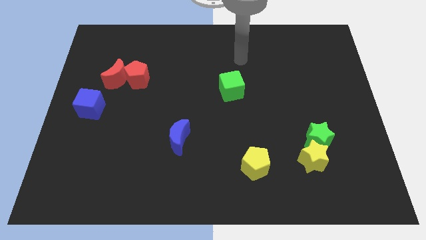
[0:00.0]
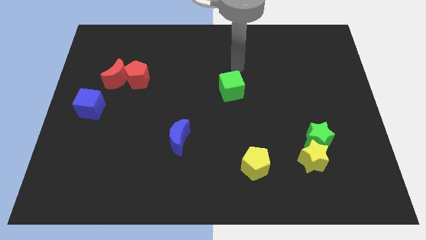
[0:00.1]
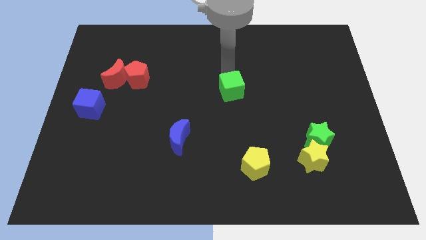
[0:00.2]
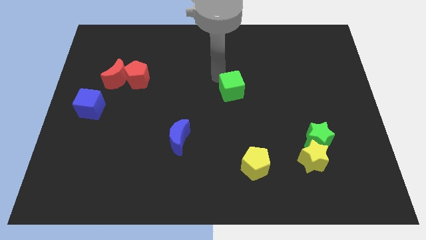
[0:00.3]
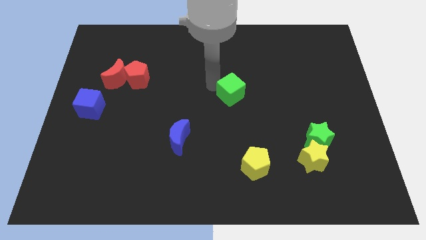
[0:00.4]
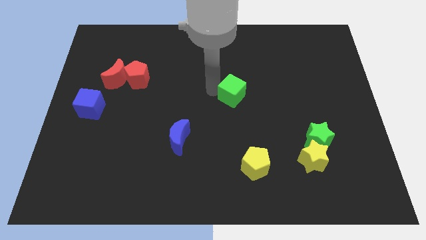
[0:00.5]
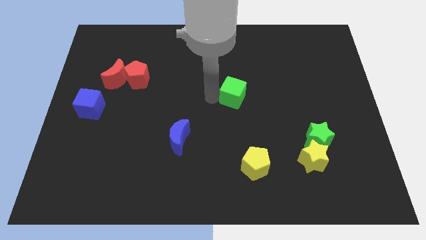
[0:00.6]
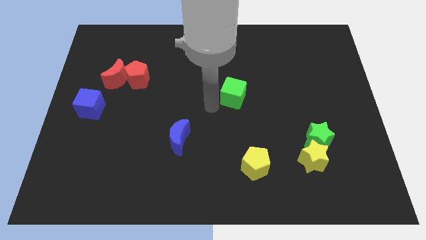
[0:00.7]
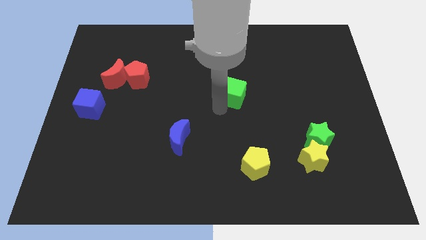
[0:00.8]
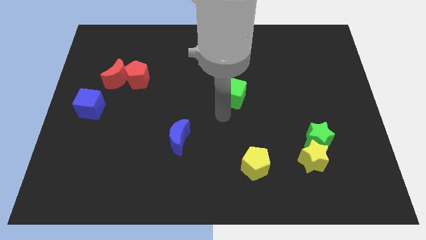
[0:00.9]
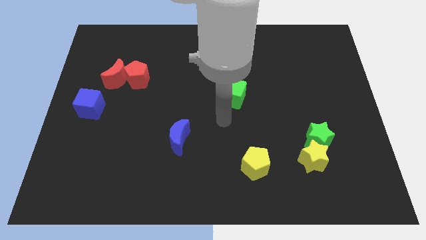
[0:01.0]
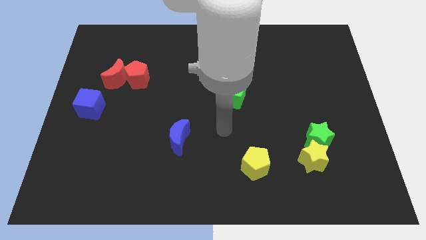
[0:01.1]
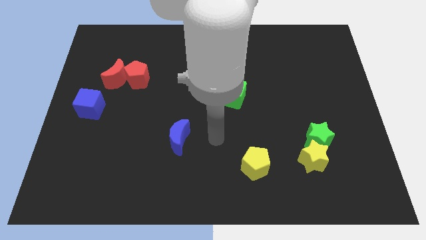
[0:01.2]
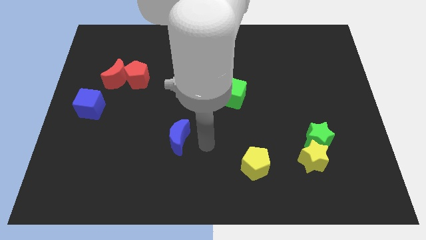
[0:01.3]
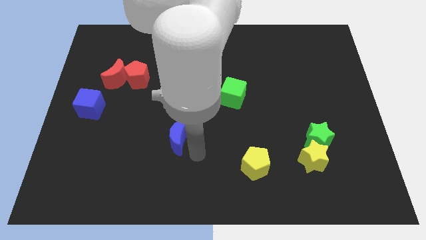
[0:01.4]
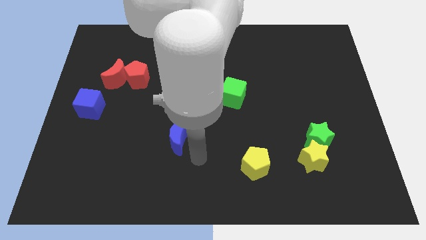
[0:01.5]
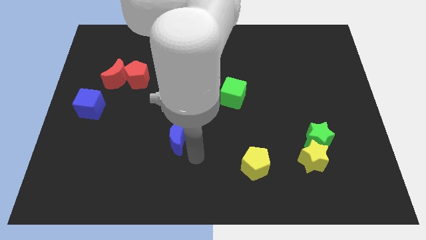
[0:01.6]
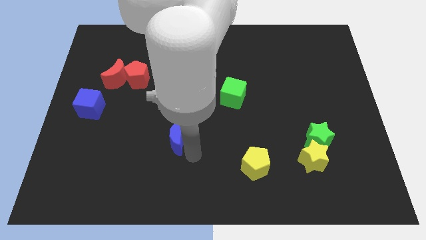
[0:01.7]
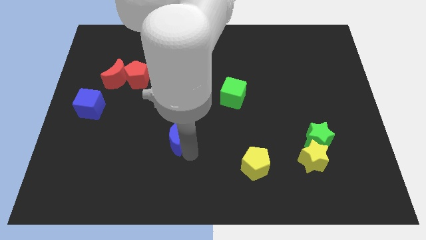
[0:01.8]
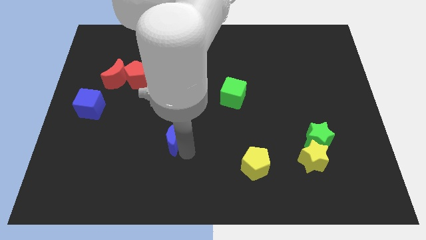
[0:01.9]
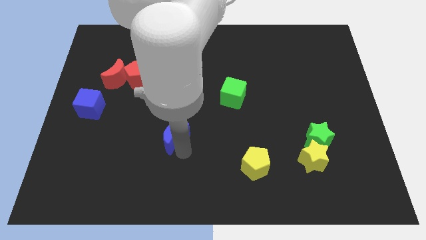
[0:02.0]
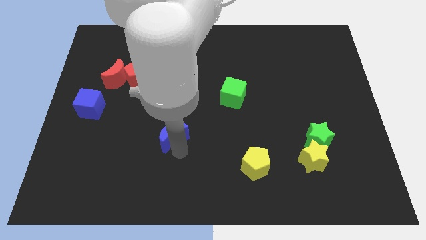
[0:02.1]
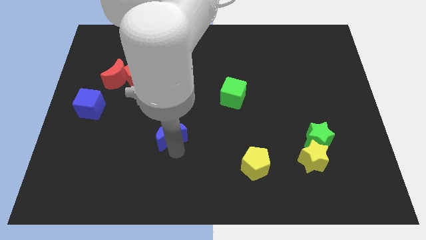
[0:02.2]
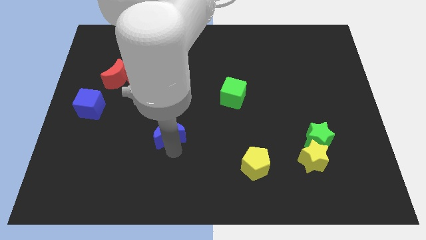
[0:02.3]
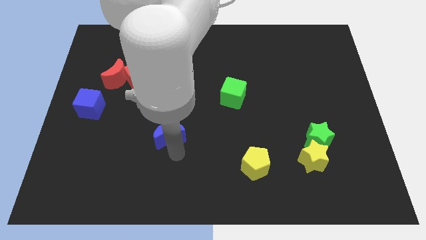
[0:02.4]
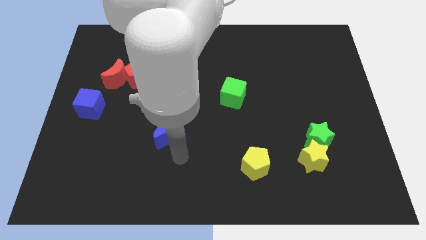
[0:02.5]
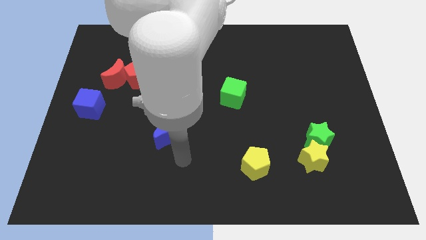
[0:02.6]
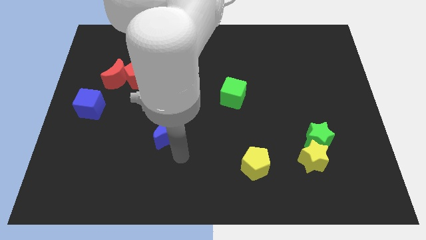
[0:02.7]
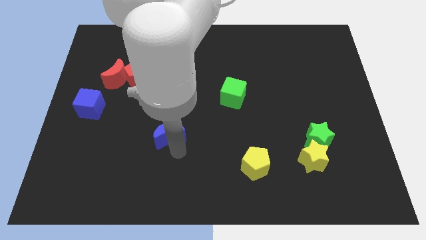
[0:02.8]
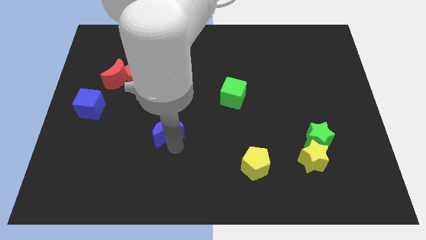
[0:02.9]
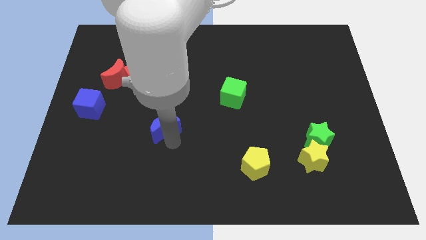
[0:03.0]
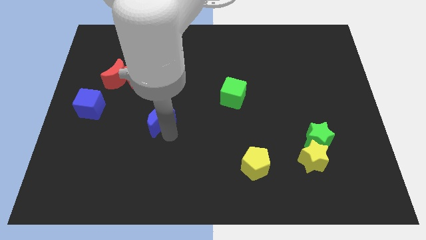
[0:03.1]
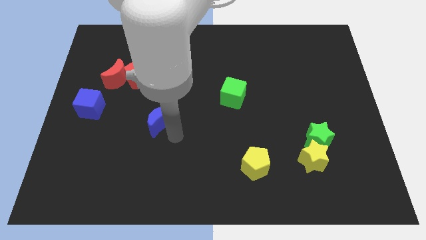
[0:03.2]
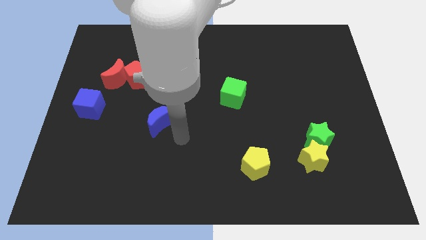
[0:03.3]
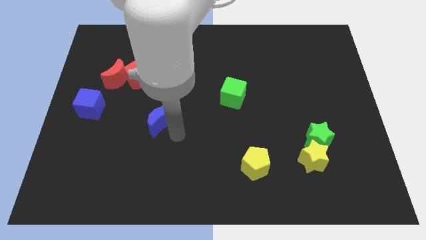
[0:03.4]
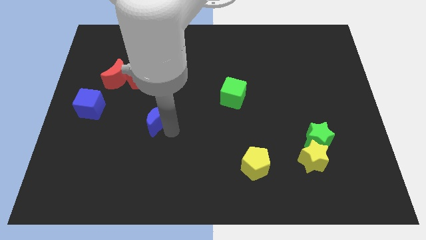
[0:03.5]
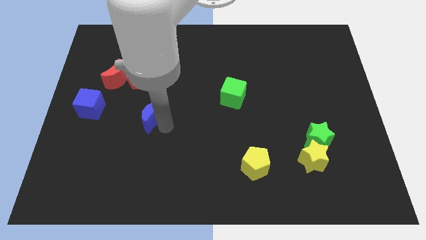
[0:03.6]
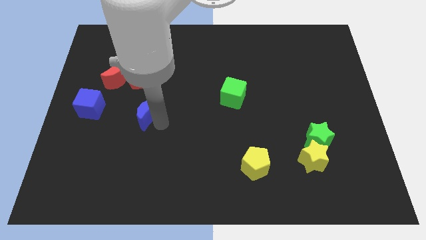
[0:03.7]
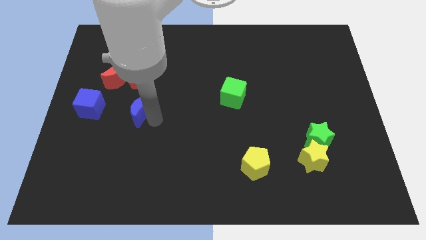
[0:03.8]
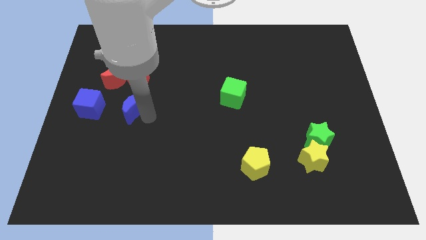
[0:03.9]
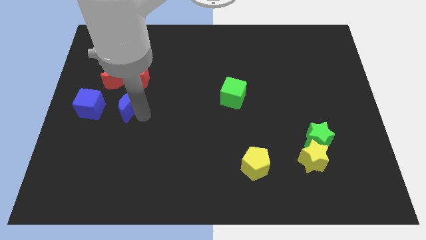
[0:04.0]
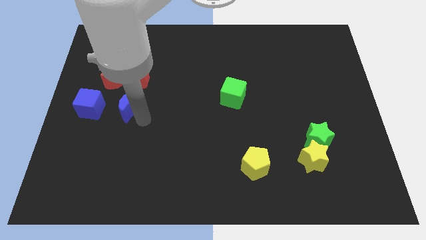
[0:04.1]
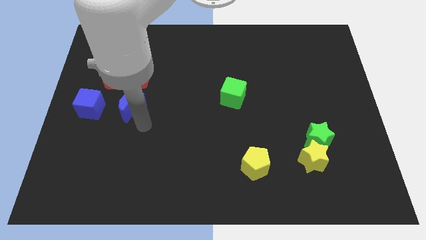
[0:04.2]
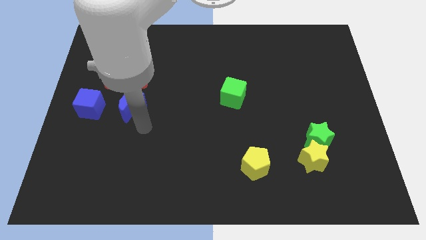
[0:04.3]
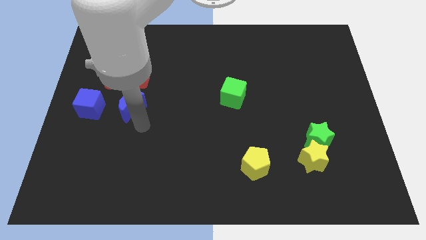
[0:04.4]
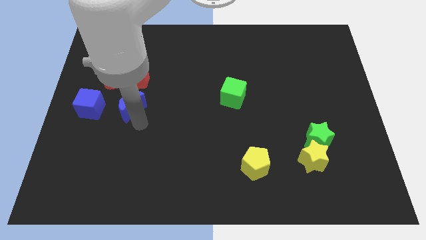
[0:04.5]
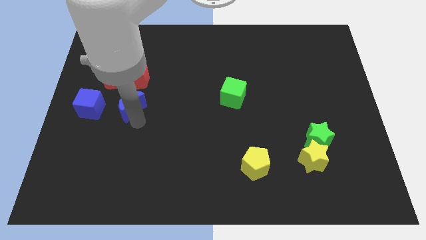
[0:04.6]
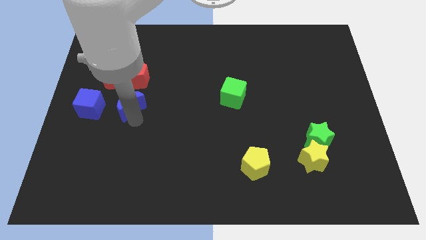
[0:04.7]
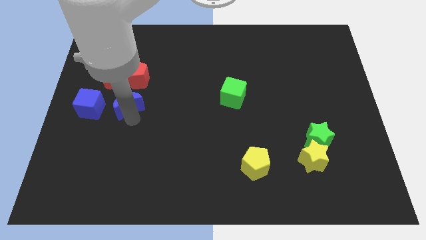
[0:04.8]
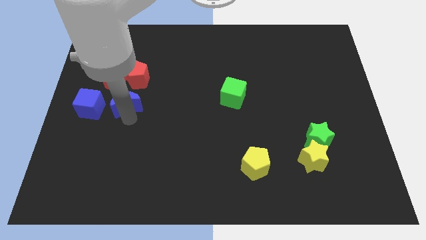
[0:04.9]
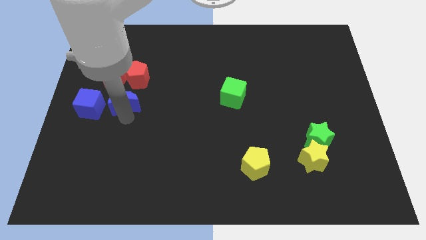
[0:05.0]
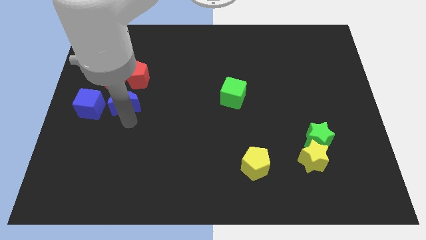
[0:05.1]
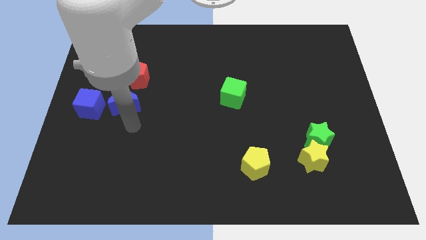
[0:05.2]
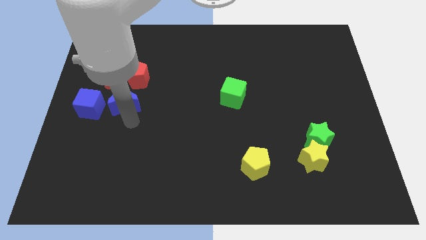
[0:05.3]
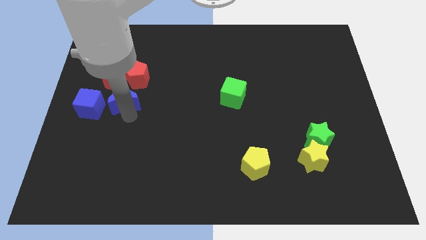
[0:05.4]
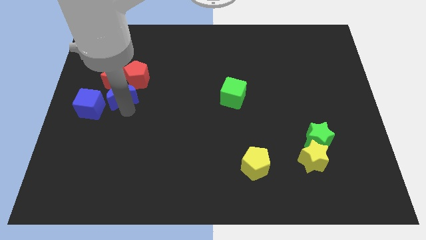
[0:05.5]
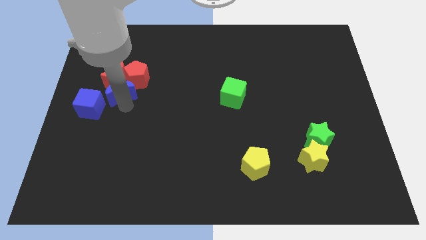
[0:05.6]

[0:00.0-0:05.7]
slide the blue moon close to the red moon

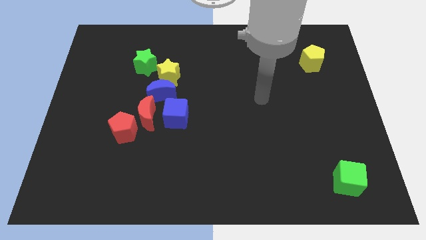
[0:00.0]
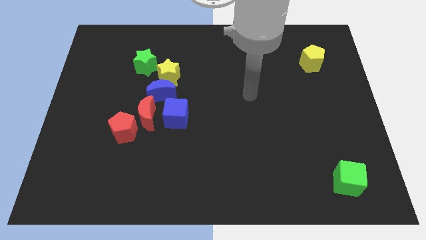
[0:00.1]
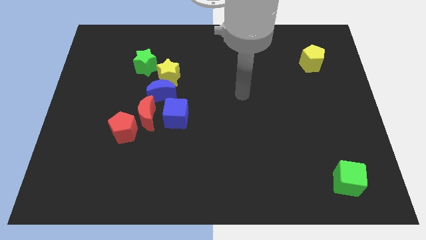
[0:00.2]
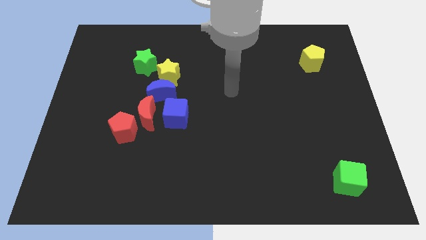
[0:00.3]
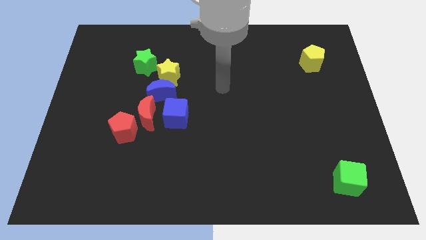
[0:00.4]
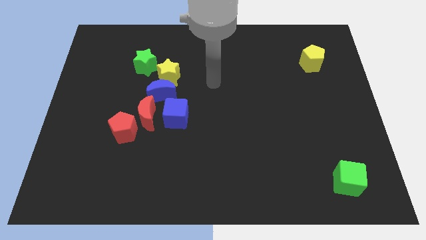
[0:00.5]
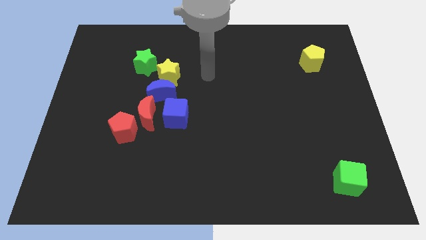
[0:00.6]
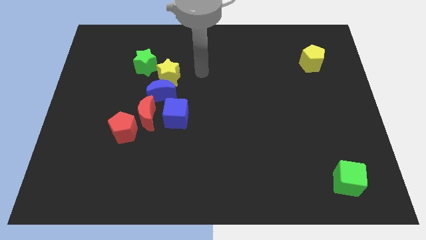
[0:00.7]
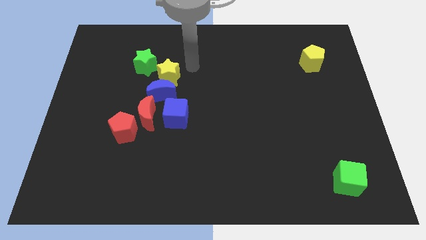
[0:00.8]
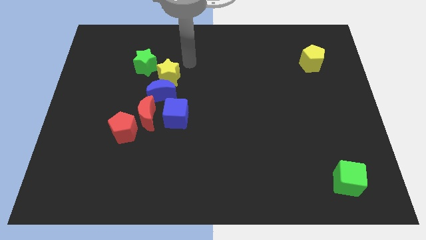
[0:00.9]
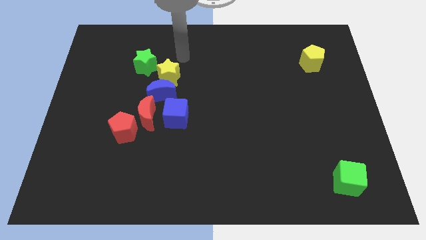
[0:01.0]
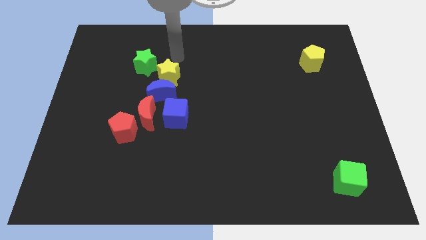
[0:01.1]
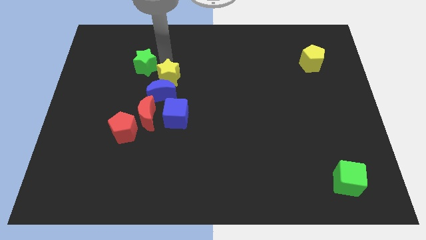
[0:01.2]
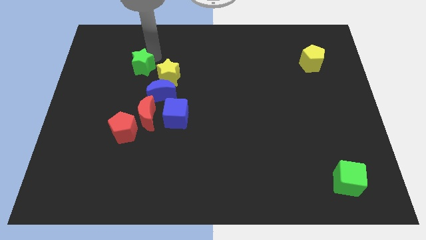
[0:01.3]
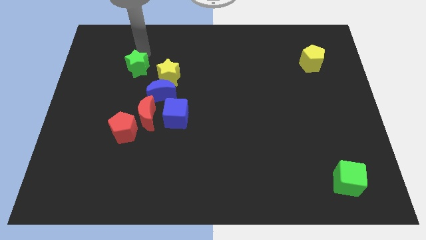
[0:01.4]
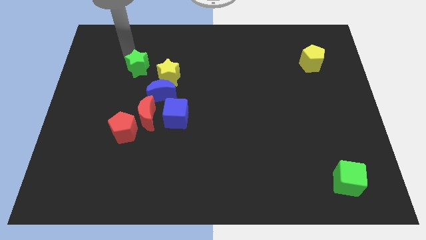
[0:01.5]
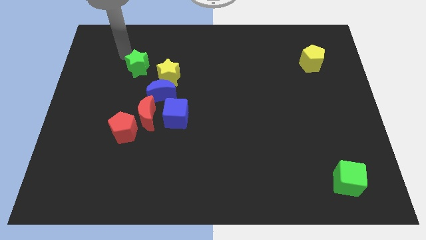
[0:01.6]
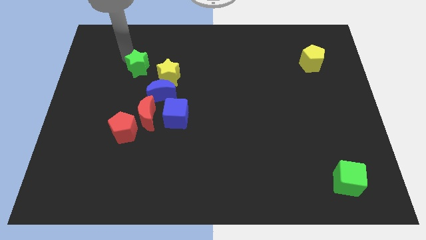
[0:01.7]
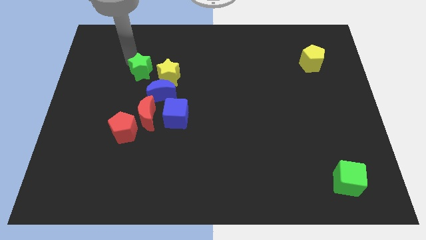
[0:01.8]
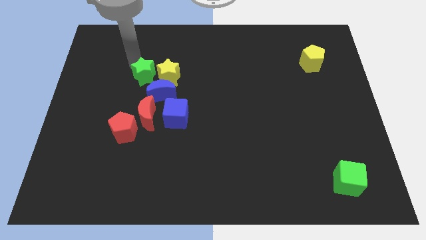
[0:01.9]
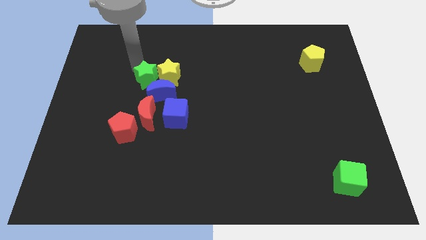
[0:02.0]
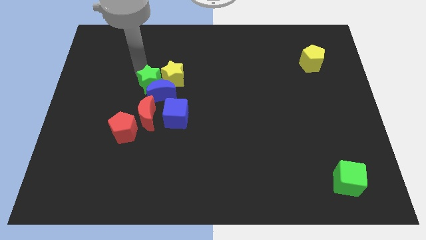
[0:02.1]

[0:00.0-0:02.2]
slide the green star to the blue moon
